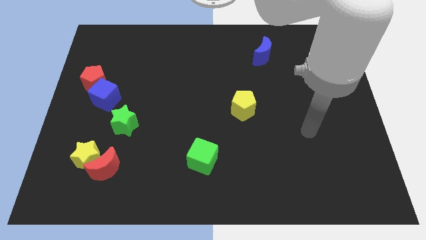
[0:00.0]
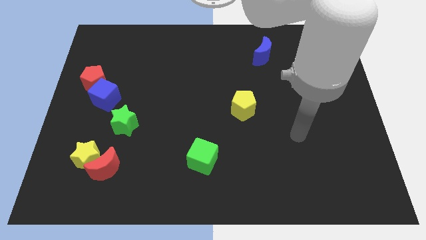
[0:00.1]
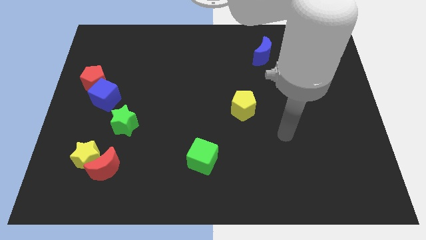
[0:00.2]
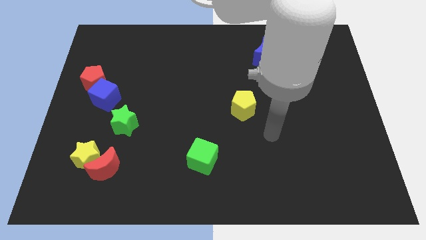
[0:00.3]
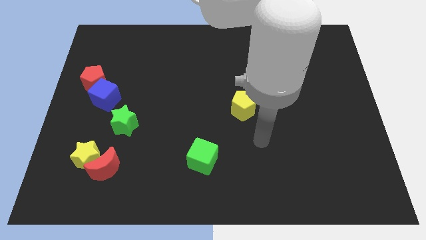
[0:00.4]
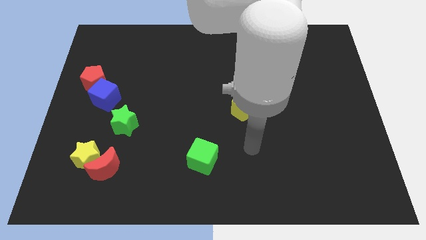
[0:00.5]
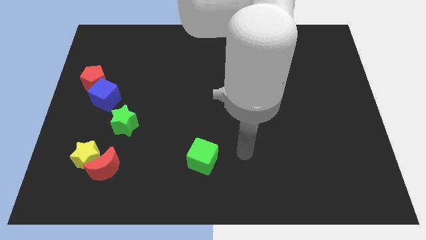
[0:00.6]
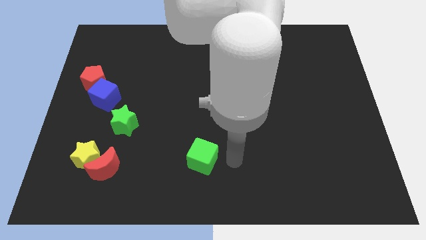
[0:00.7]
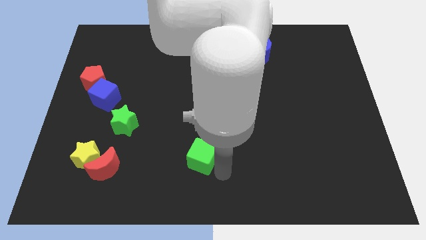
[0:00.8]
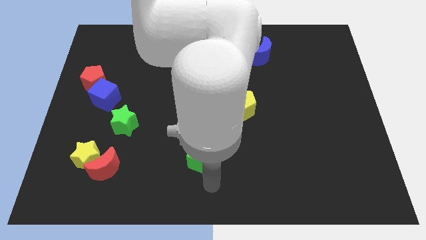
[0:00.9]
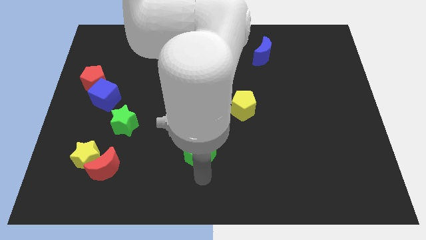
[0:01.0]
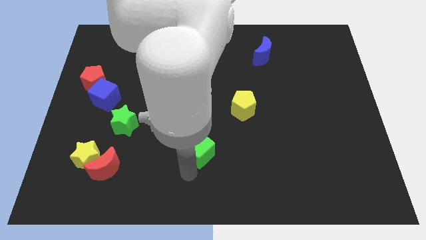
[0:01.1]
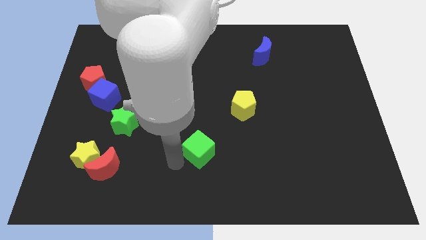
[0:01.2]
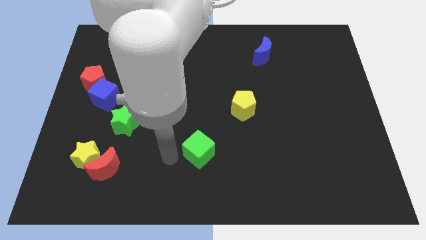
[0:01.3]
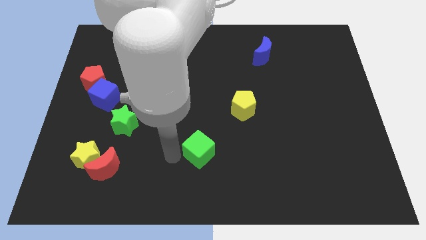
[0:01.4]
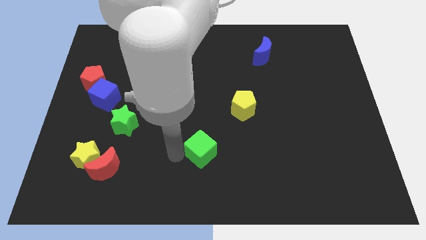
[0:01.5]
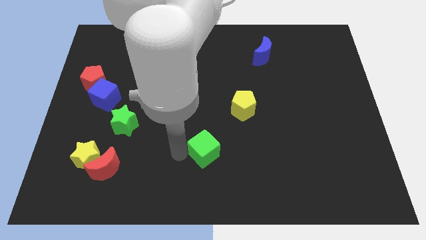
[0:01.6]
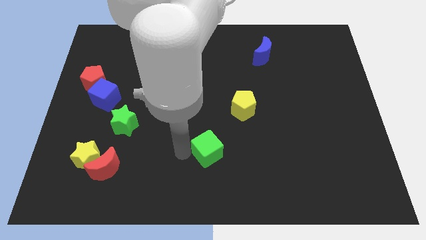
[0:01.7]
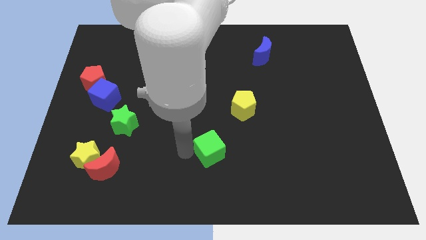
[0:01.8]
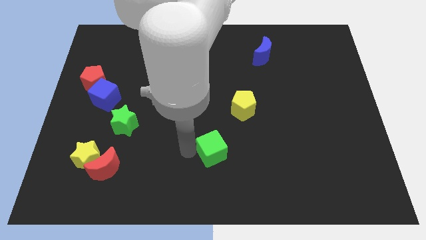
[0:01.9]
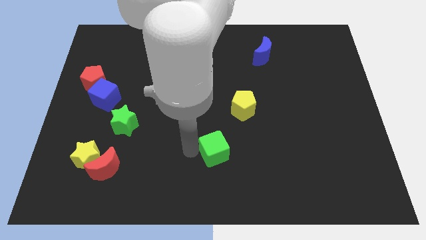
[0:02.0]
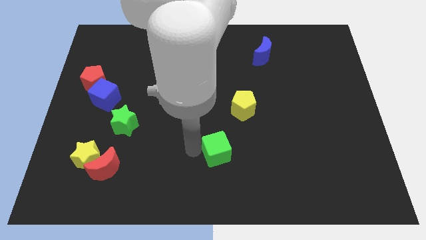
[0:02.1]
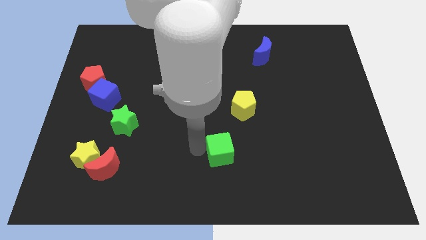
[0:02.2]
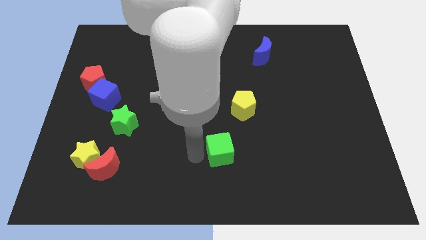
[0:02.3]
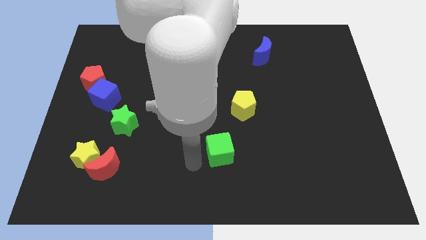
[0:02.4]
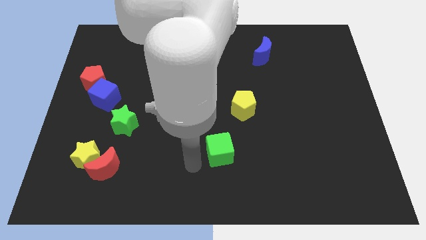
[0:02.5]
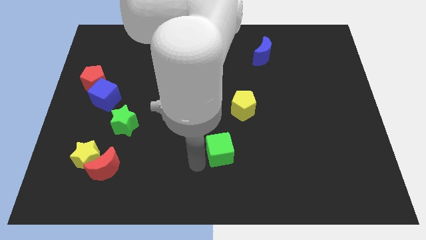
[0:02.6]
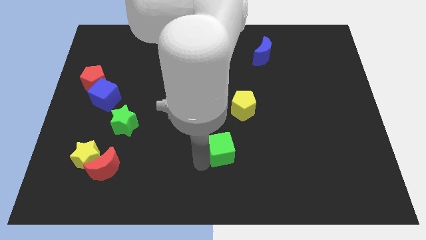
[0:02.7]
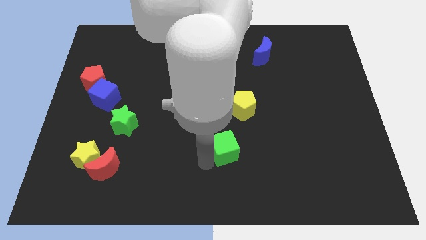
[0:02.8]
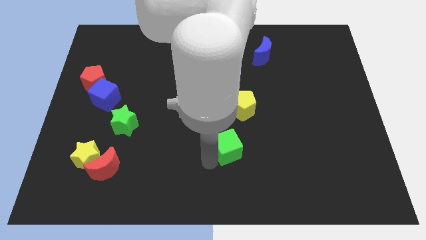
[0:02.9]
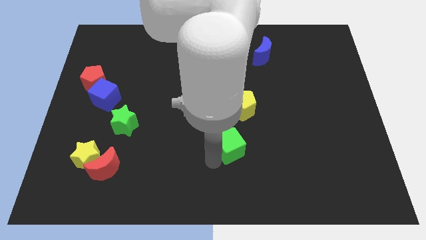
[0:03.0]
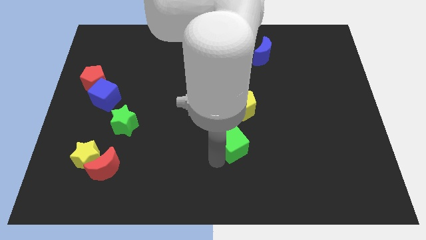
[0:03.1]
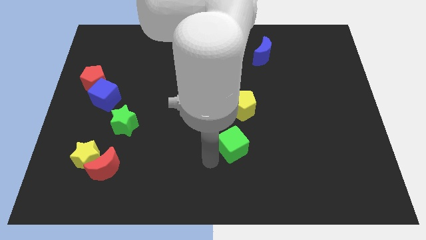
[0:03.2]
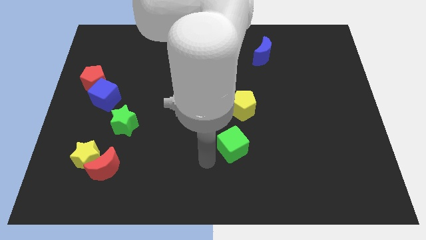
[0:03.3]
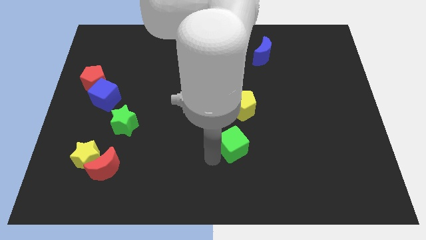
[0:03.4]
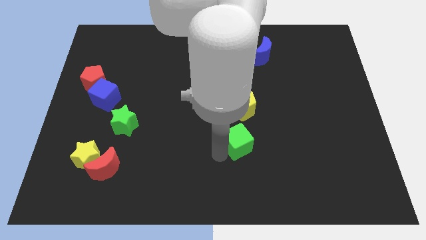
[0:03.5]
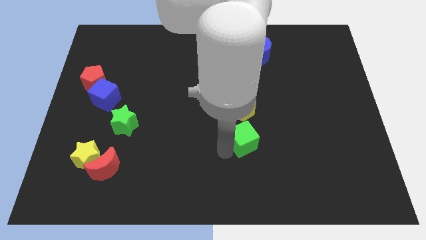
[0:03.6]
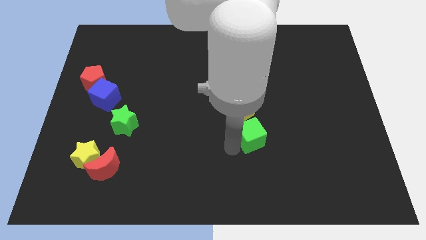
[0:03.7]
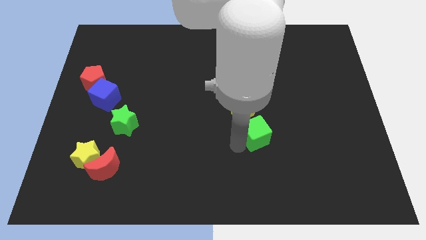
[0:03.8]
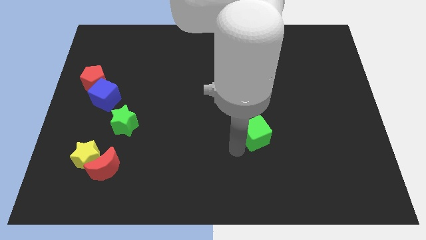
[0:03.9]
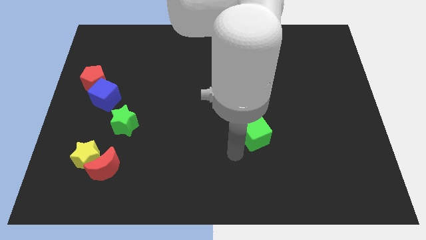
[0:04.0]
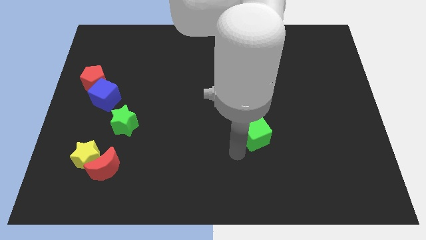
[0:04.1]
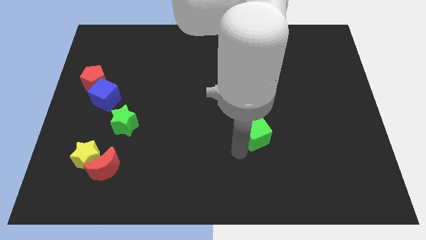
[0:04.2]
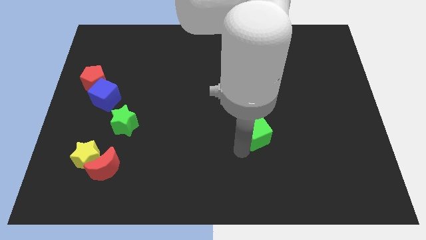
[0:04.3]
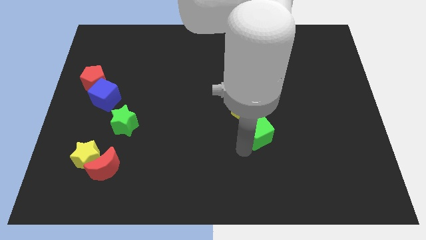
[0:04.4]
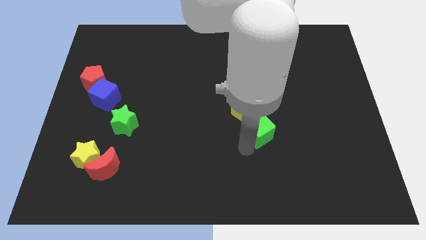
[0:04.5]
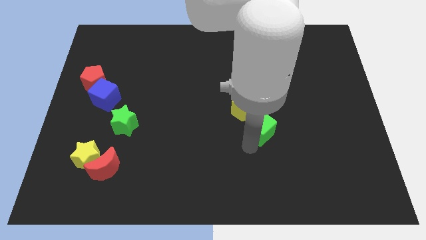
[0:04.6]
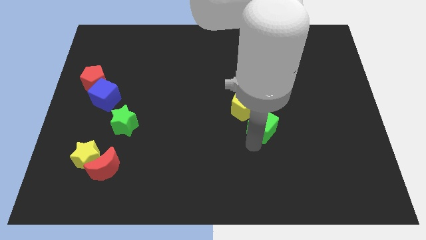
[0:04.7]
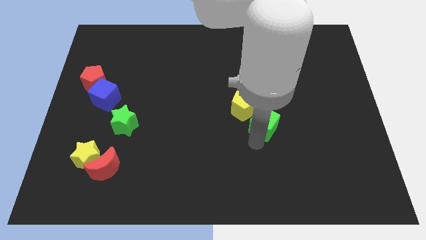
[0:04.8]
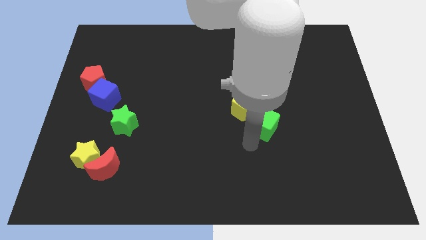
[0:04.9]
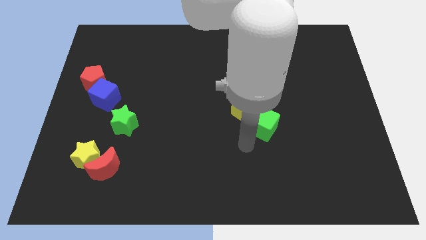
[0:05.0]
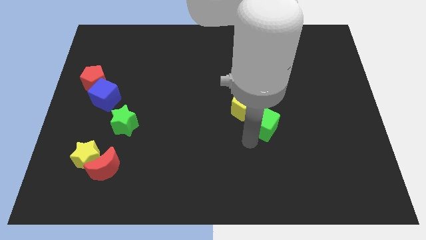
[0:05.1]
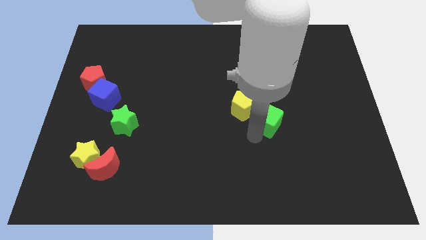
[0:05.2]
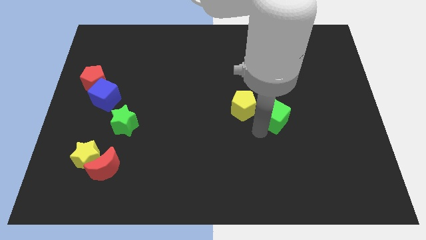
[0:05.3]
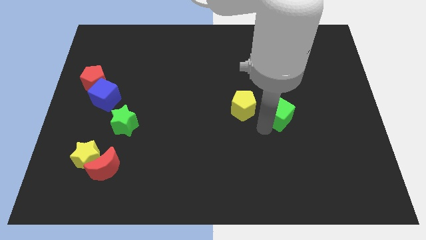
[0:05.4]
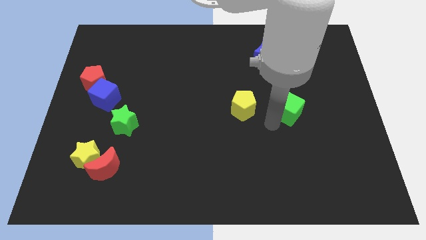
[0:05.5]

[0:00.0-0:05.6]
push the green cube upwards and to the right

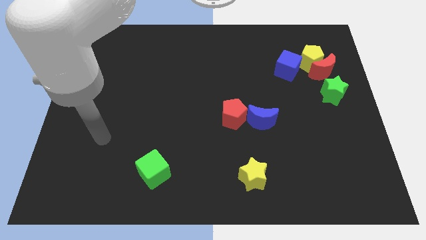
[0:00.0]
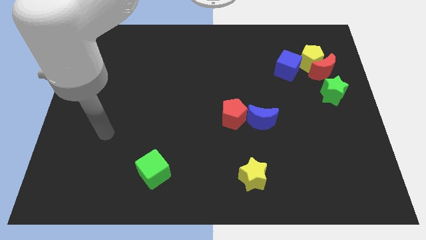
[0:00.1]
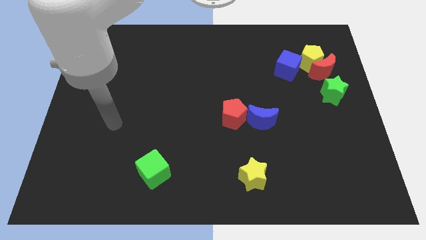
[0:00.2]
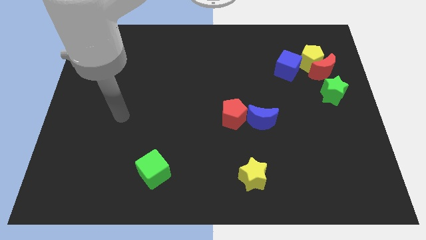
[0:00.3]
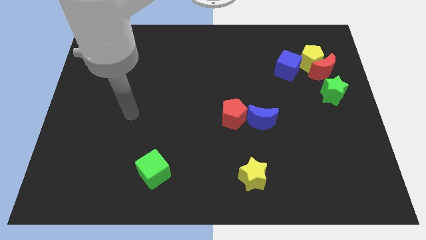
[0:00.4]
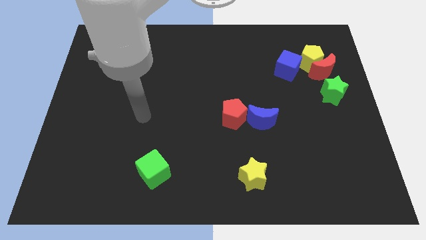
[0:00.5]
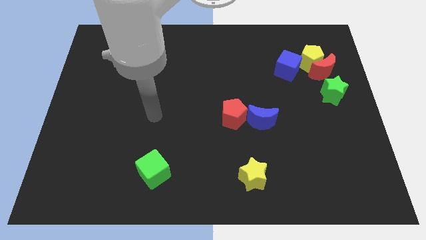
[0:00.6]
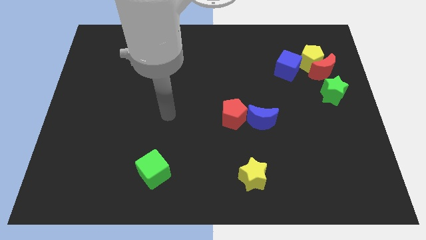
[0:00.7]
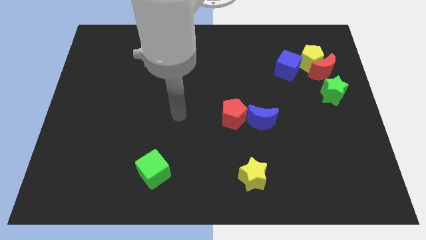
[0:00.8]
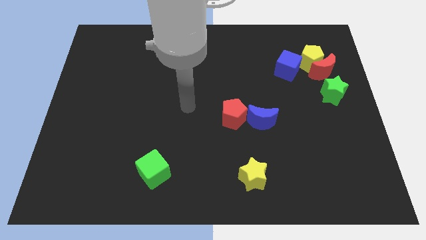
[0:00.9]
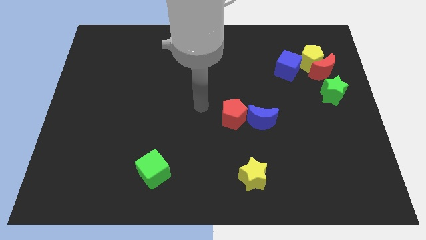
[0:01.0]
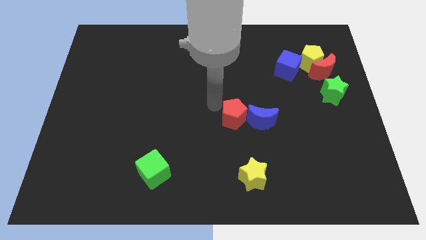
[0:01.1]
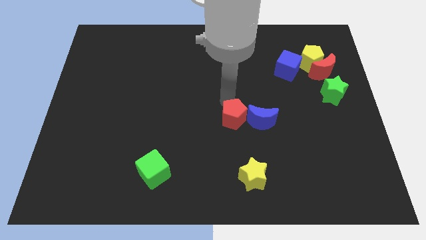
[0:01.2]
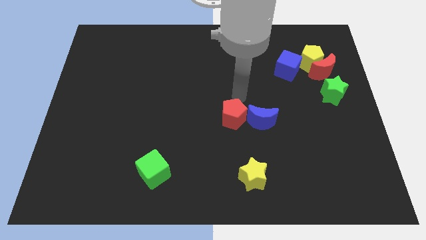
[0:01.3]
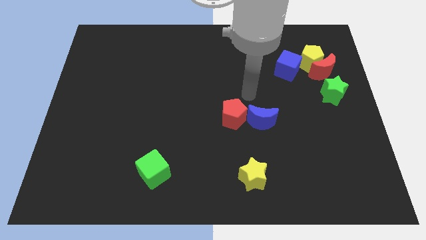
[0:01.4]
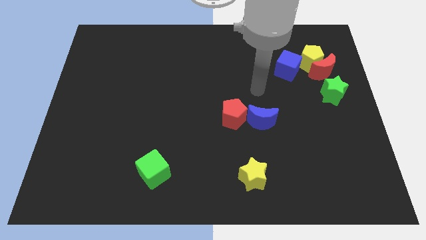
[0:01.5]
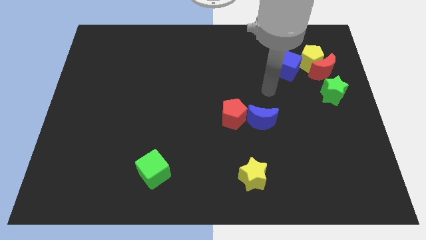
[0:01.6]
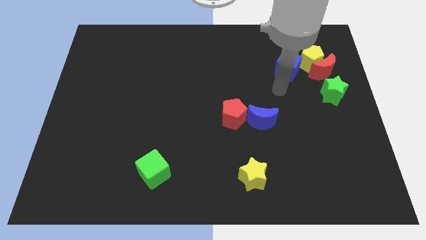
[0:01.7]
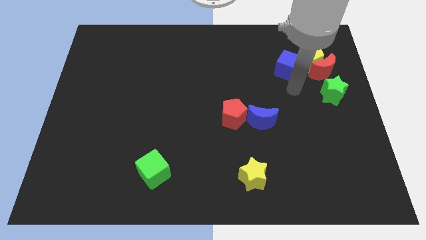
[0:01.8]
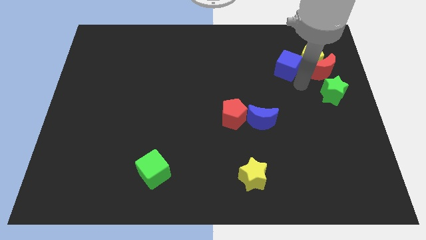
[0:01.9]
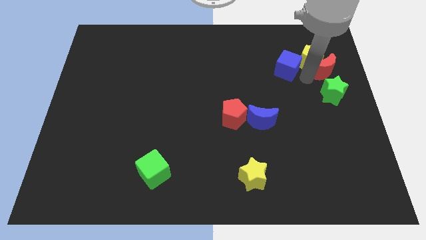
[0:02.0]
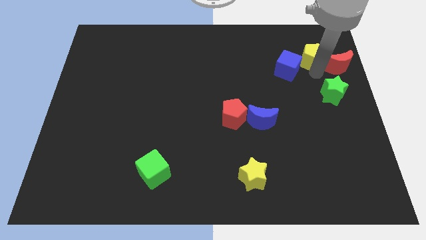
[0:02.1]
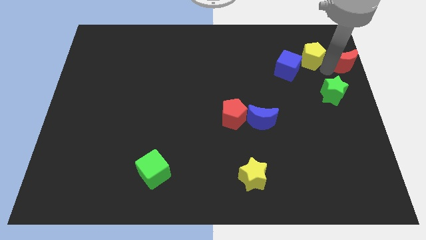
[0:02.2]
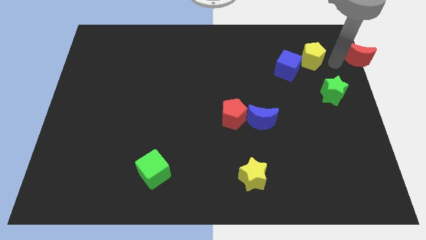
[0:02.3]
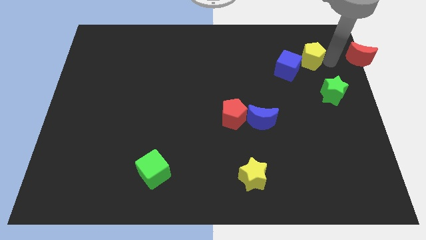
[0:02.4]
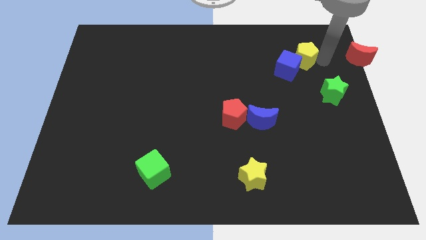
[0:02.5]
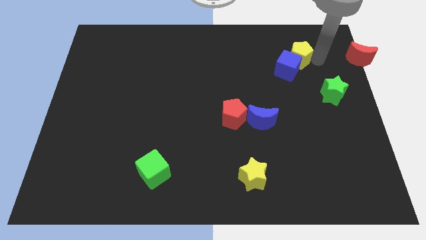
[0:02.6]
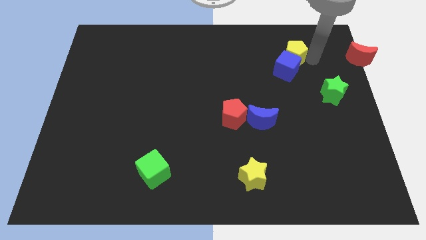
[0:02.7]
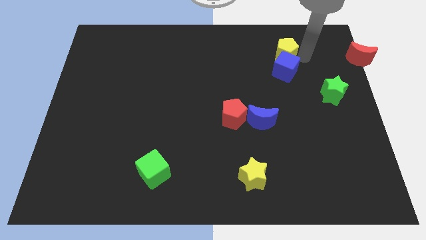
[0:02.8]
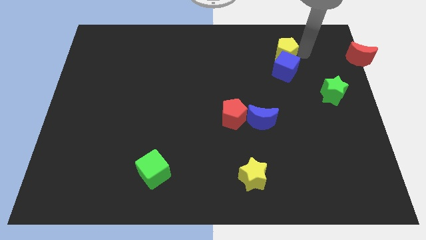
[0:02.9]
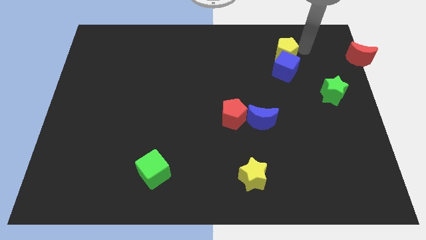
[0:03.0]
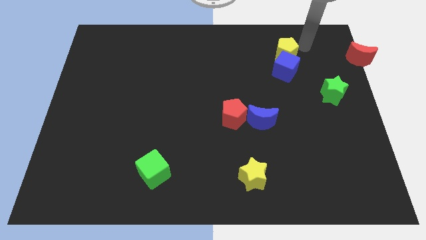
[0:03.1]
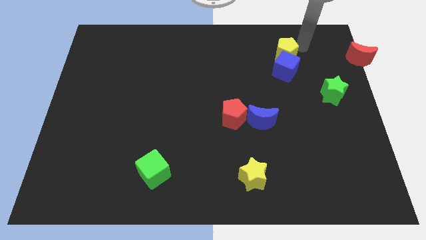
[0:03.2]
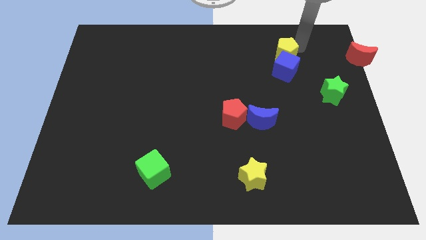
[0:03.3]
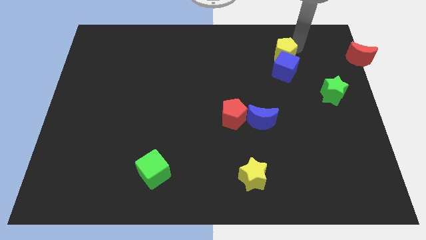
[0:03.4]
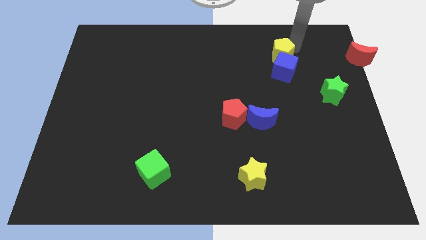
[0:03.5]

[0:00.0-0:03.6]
slightly slide the yellow pentagon left
